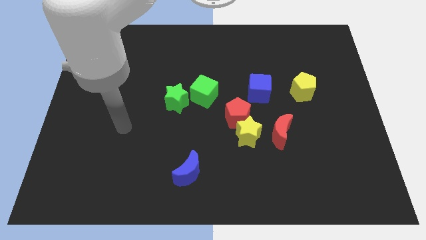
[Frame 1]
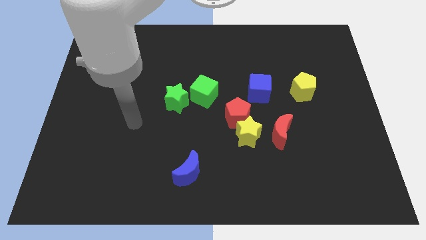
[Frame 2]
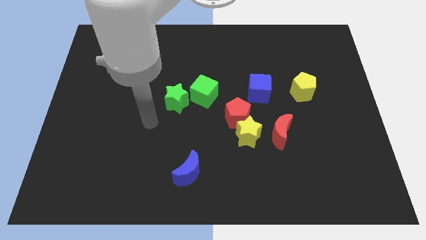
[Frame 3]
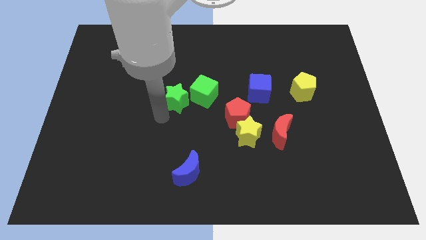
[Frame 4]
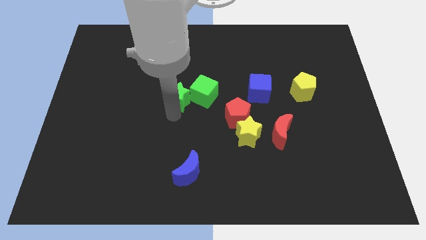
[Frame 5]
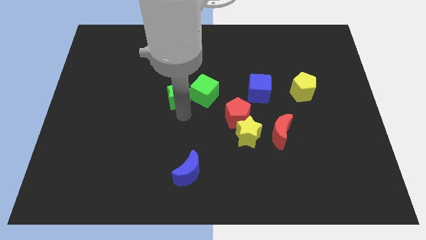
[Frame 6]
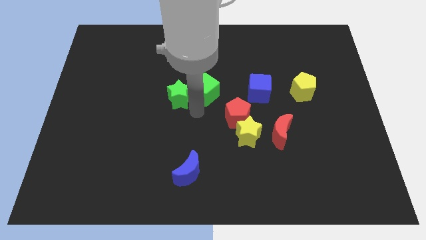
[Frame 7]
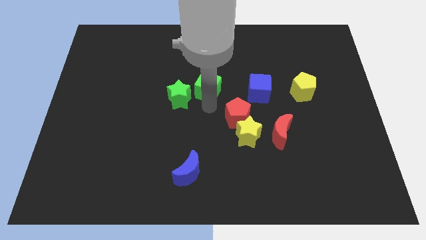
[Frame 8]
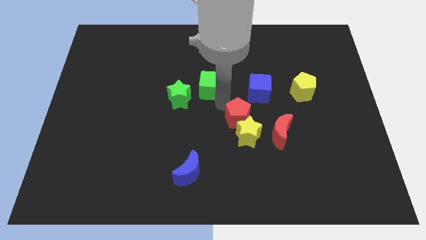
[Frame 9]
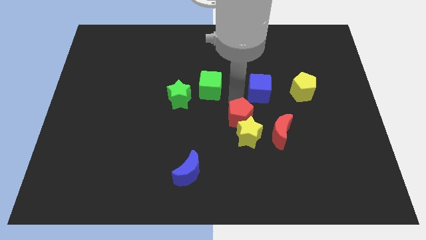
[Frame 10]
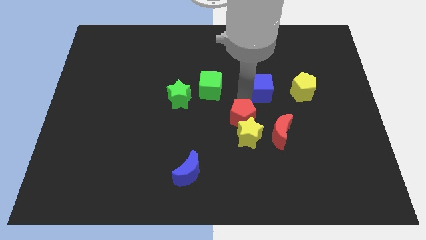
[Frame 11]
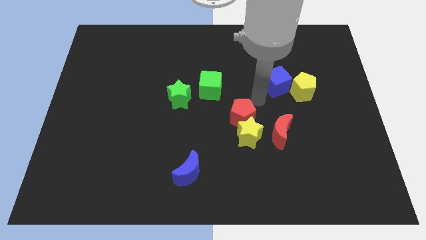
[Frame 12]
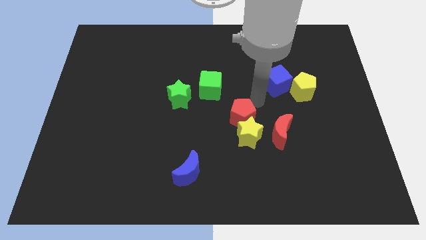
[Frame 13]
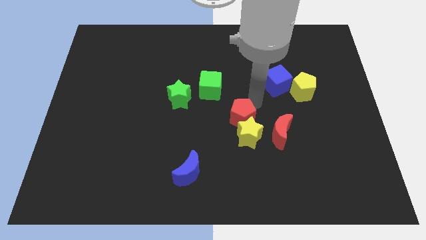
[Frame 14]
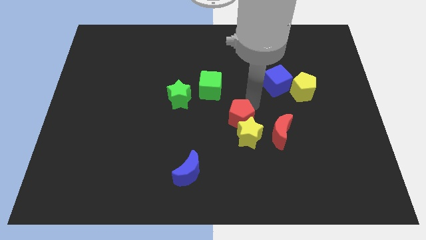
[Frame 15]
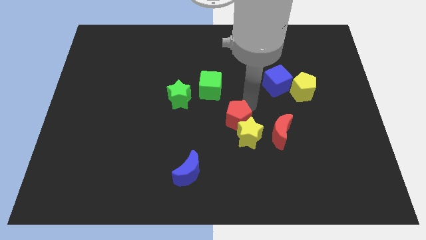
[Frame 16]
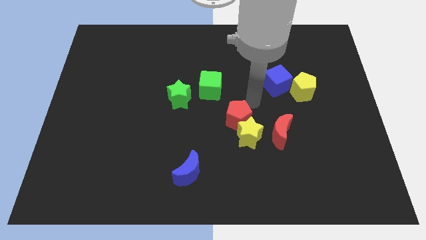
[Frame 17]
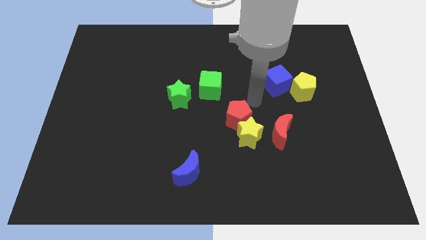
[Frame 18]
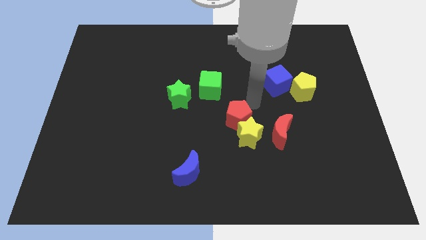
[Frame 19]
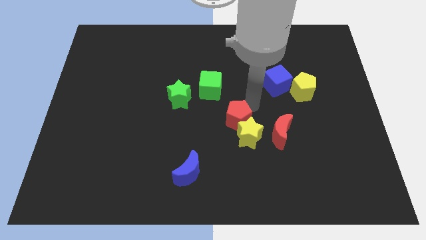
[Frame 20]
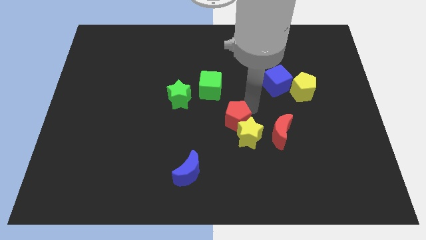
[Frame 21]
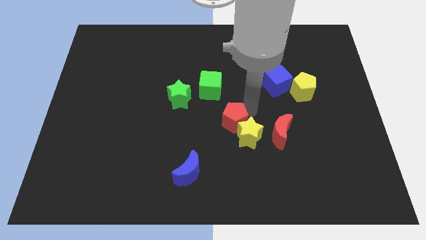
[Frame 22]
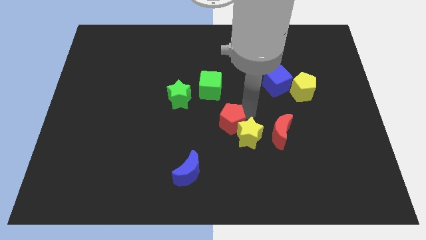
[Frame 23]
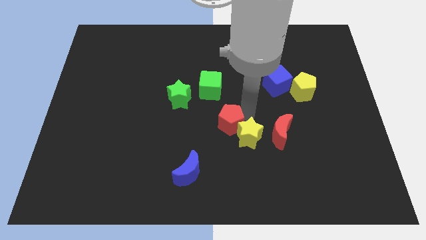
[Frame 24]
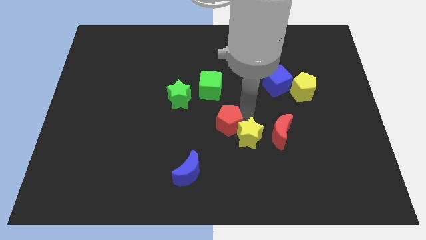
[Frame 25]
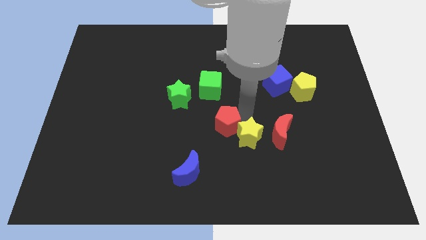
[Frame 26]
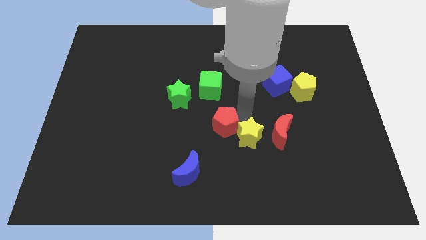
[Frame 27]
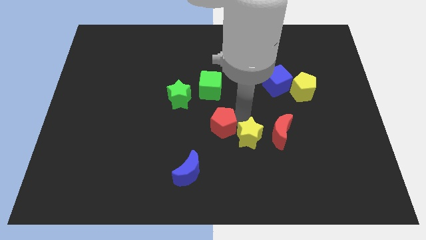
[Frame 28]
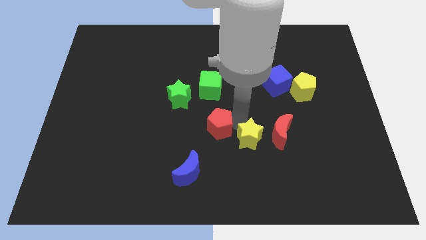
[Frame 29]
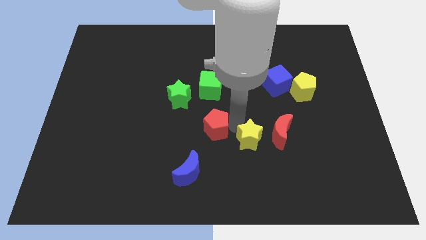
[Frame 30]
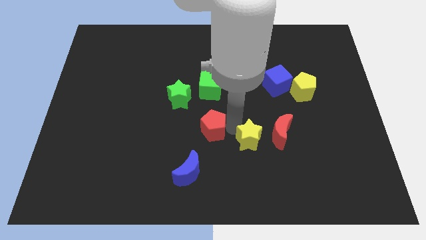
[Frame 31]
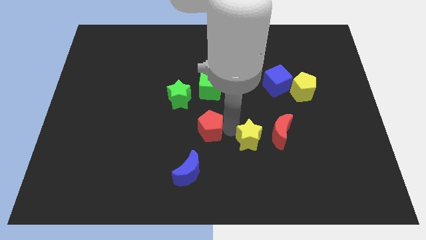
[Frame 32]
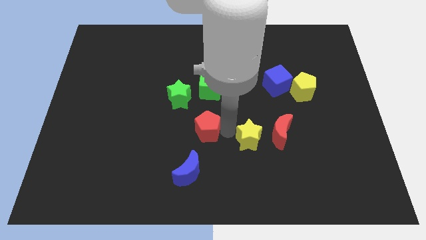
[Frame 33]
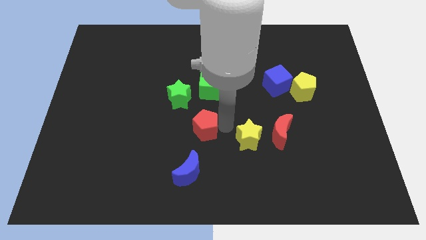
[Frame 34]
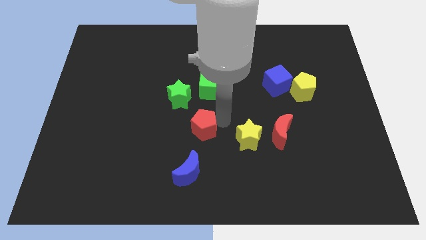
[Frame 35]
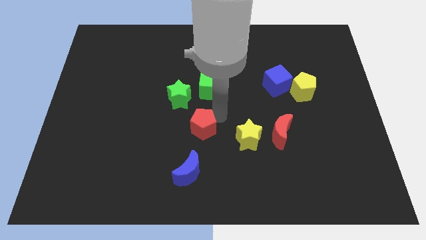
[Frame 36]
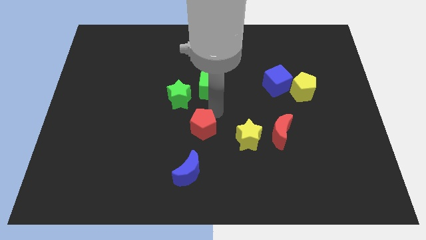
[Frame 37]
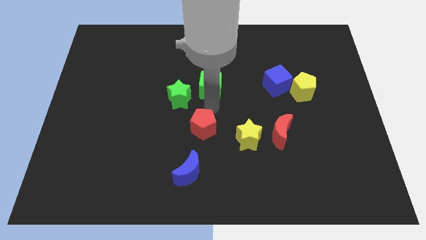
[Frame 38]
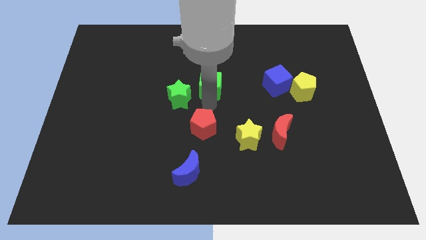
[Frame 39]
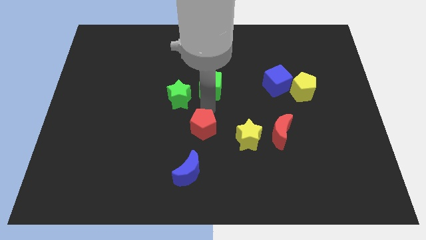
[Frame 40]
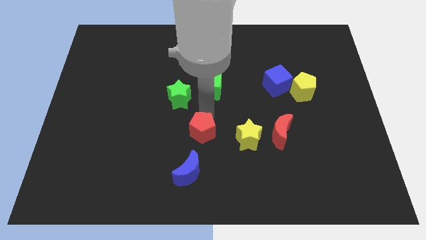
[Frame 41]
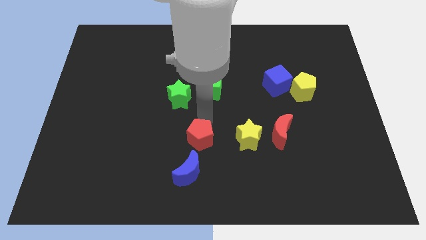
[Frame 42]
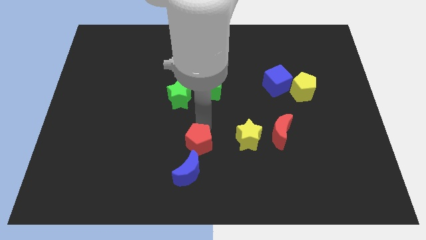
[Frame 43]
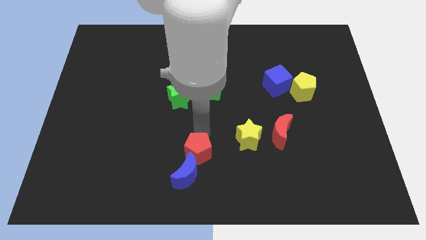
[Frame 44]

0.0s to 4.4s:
slide the red pentagon next to the blue moon

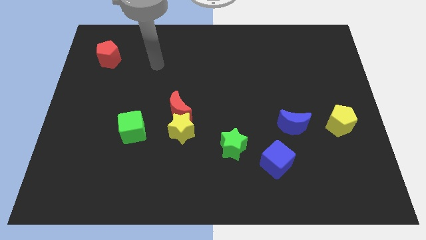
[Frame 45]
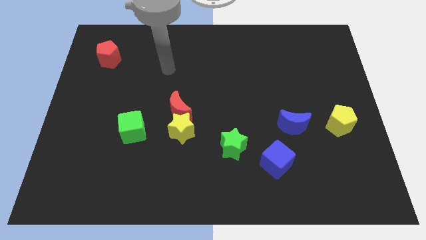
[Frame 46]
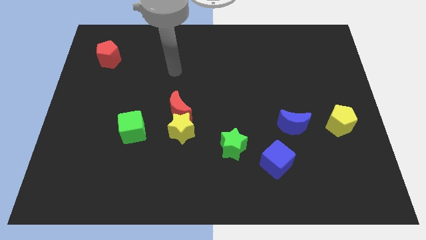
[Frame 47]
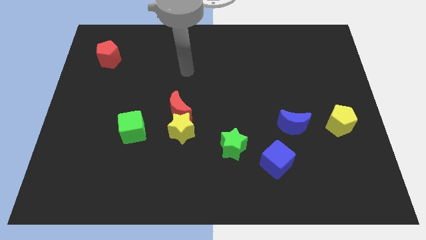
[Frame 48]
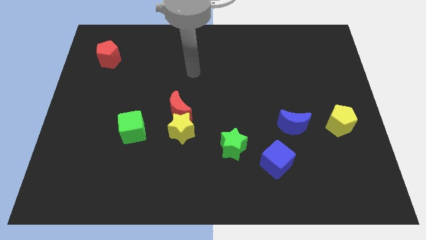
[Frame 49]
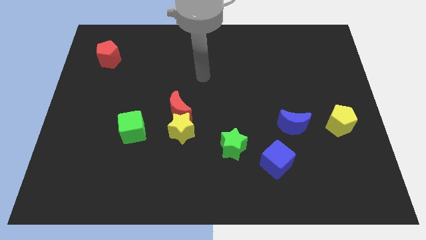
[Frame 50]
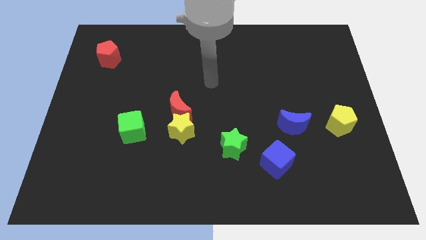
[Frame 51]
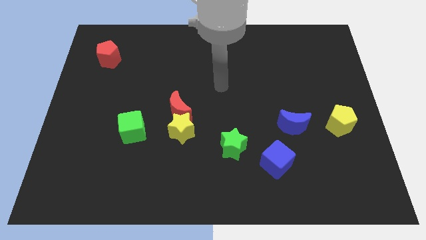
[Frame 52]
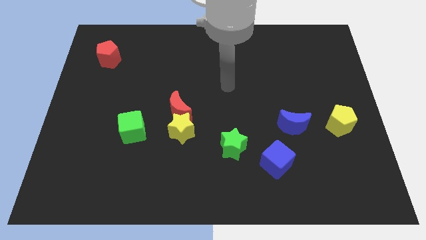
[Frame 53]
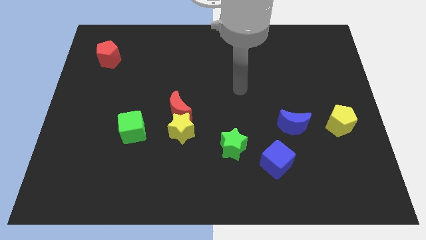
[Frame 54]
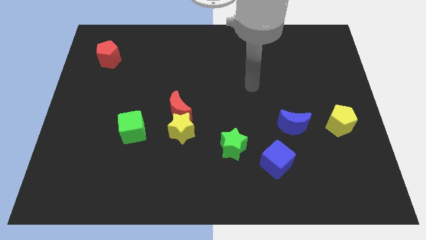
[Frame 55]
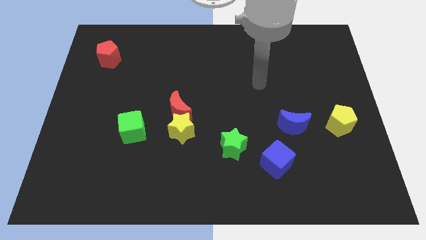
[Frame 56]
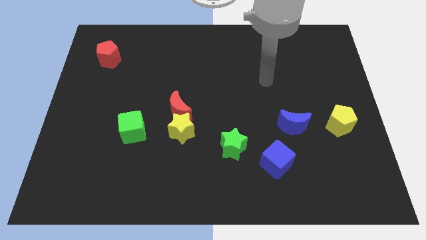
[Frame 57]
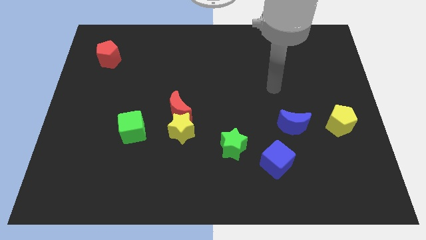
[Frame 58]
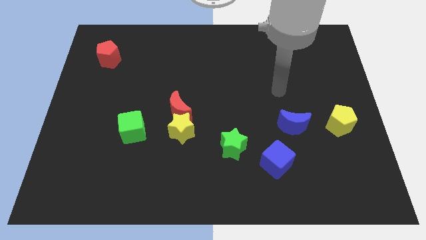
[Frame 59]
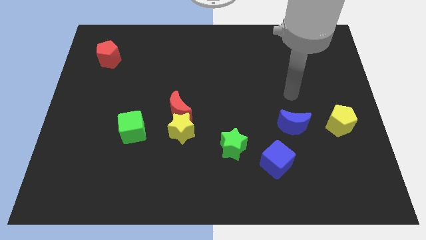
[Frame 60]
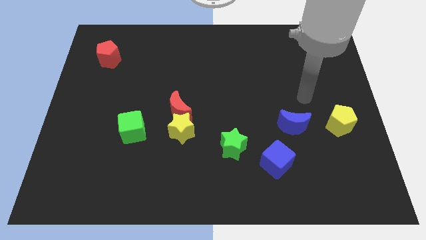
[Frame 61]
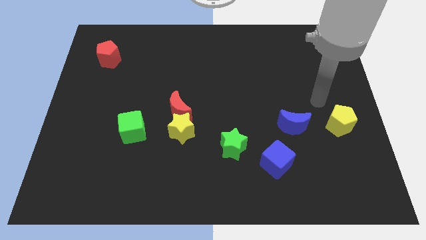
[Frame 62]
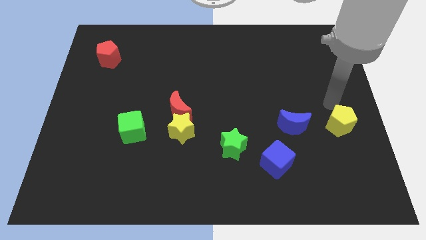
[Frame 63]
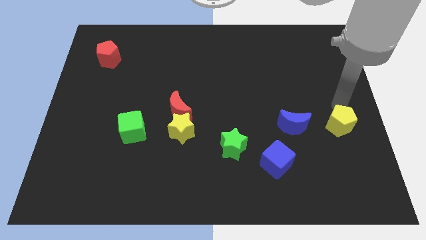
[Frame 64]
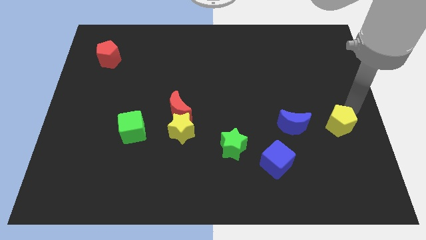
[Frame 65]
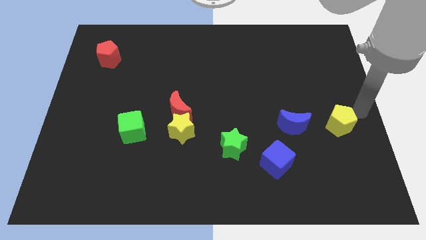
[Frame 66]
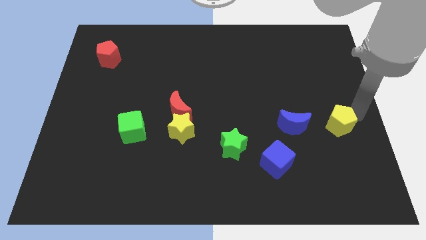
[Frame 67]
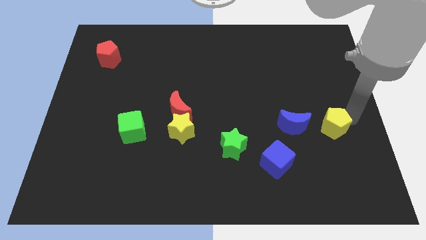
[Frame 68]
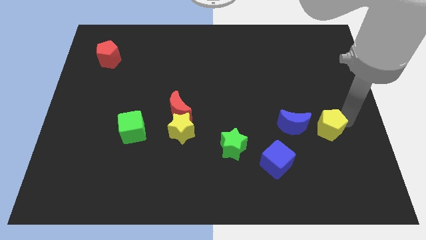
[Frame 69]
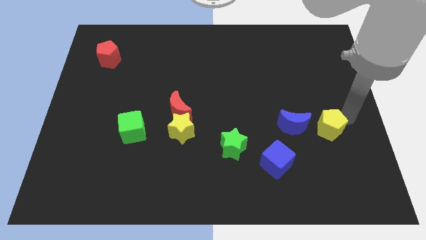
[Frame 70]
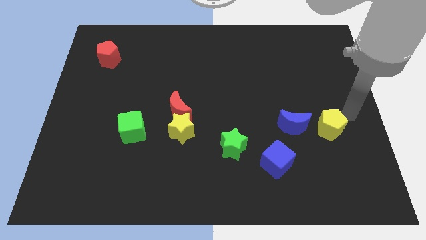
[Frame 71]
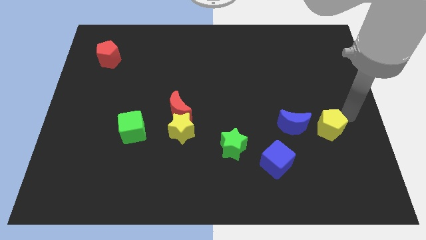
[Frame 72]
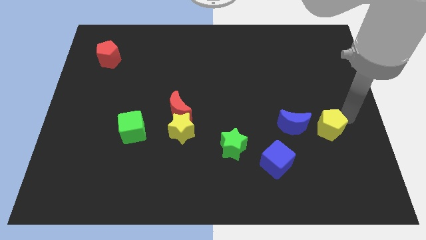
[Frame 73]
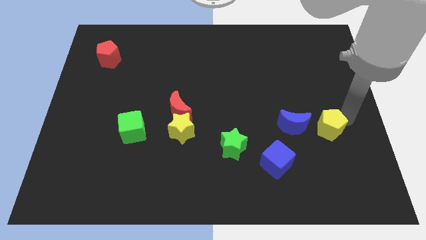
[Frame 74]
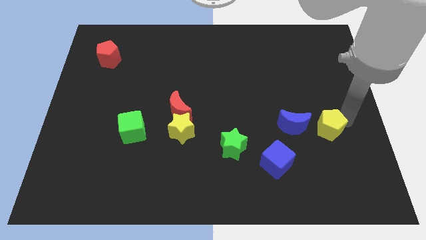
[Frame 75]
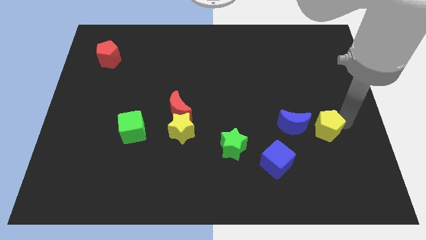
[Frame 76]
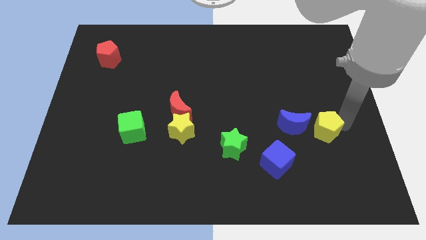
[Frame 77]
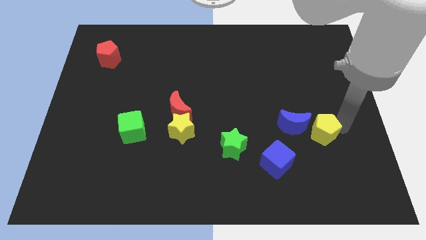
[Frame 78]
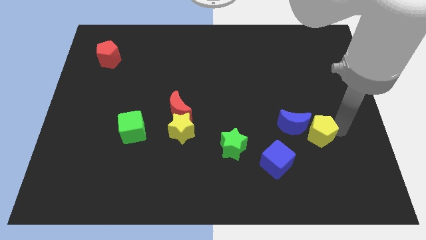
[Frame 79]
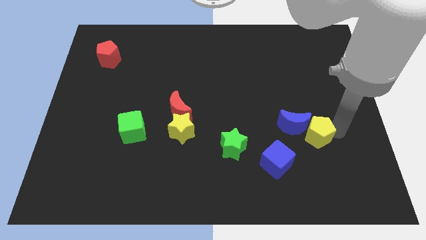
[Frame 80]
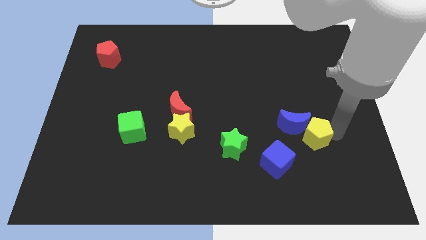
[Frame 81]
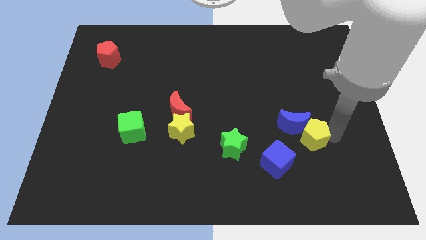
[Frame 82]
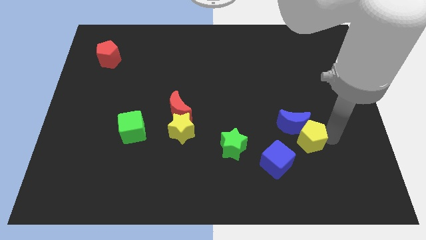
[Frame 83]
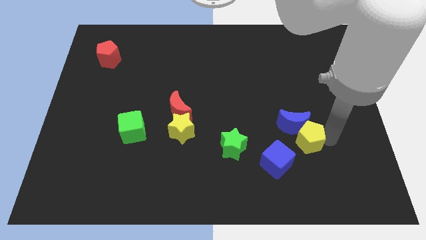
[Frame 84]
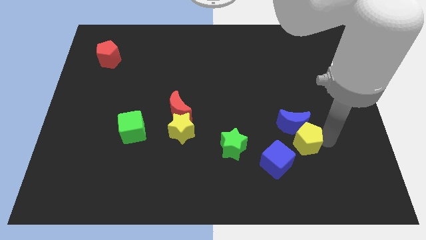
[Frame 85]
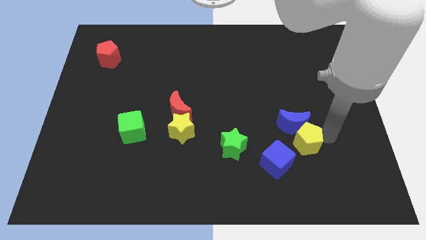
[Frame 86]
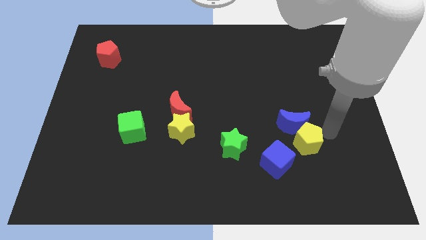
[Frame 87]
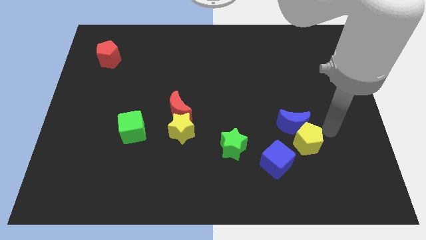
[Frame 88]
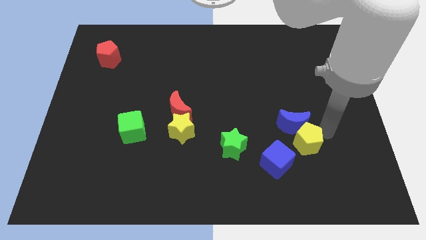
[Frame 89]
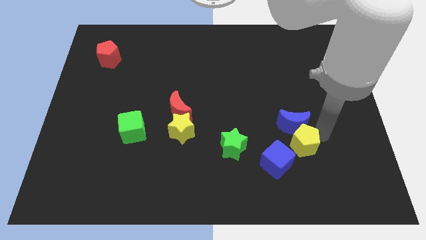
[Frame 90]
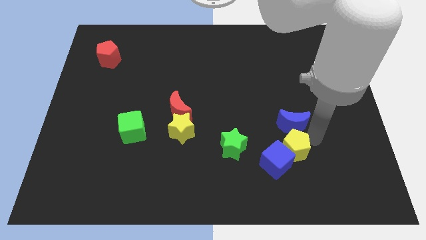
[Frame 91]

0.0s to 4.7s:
slide the yellow pentagon next to the blue cube
